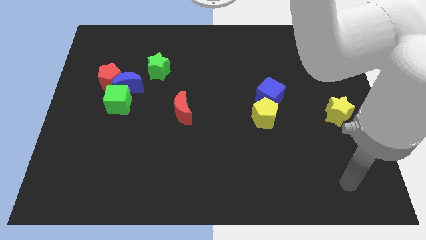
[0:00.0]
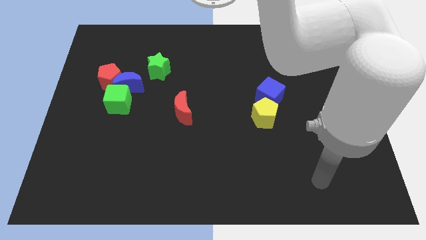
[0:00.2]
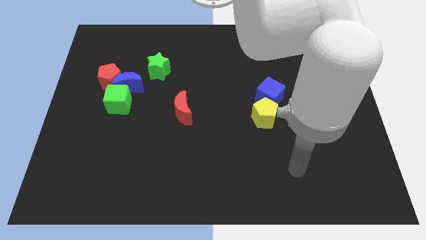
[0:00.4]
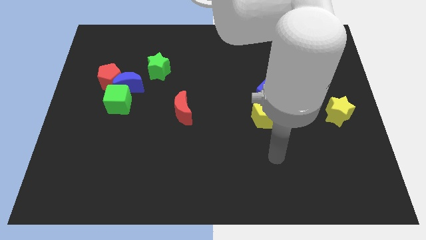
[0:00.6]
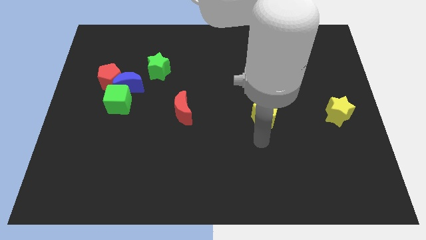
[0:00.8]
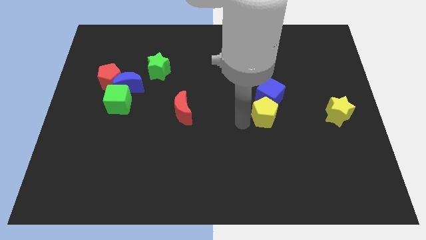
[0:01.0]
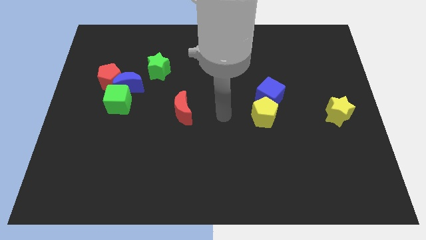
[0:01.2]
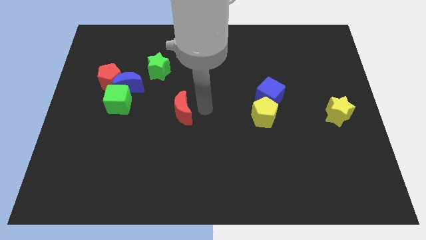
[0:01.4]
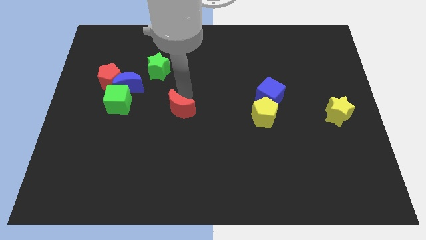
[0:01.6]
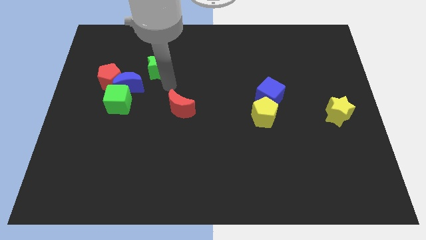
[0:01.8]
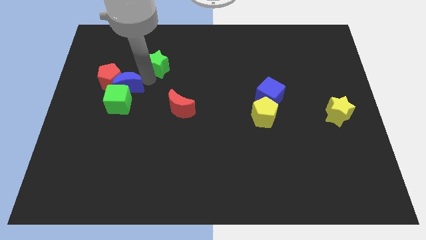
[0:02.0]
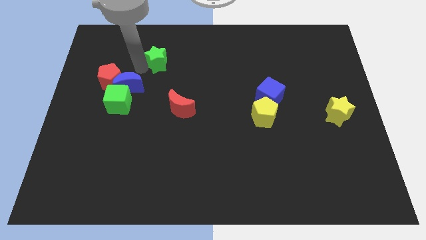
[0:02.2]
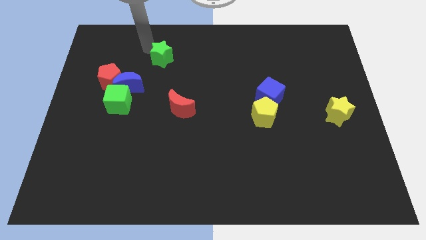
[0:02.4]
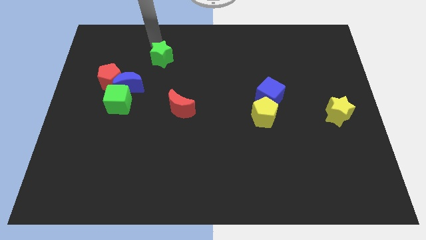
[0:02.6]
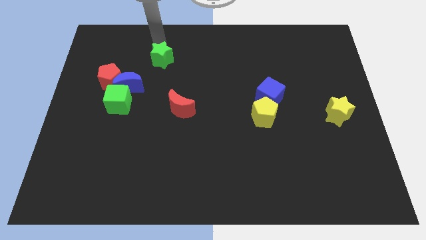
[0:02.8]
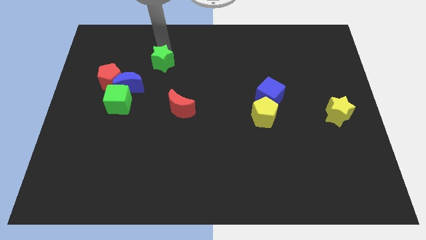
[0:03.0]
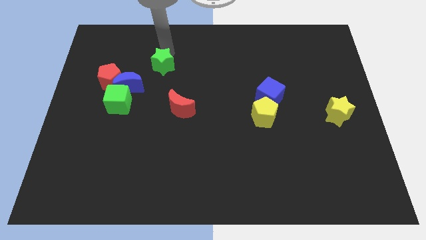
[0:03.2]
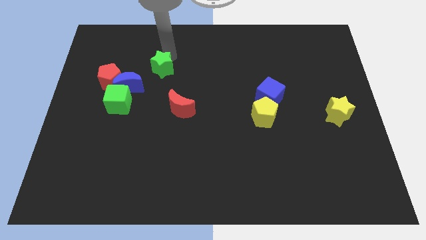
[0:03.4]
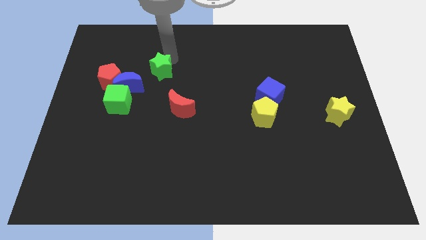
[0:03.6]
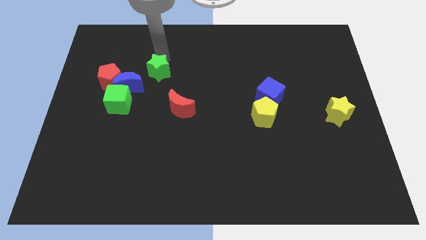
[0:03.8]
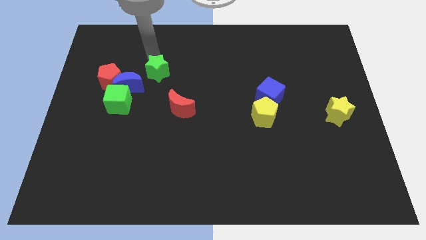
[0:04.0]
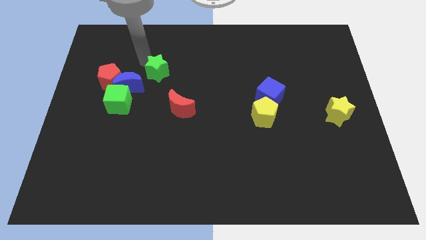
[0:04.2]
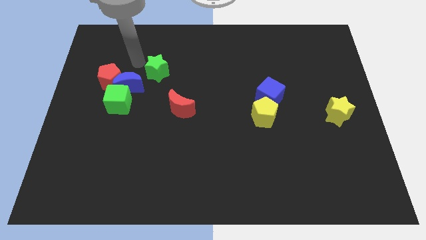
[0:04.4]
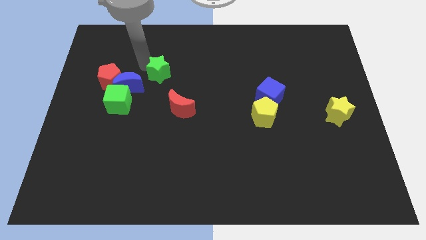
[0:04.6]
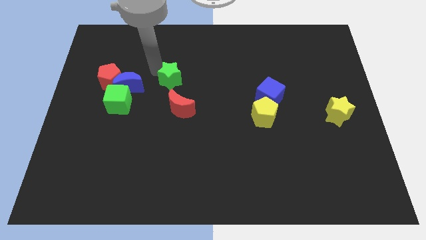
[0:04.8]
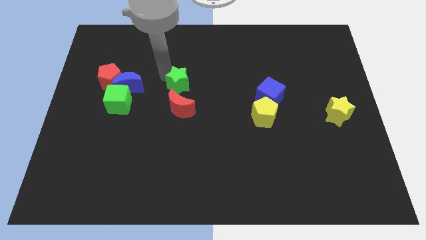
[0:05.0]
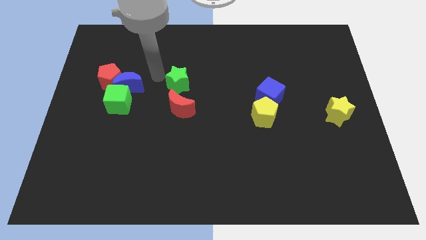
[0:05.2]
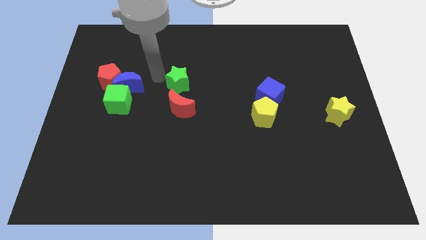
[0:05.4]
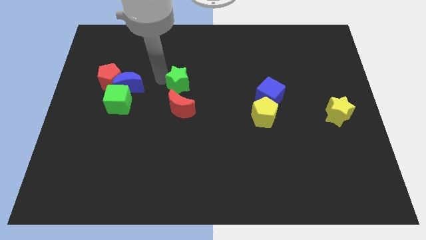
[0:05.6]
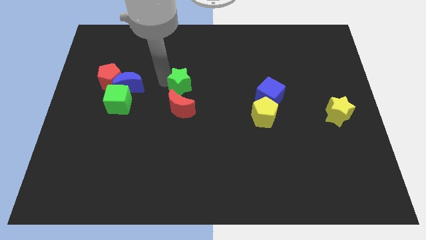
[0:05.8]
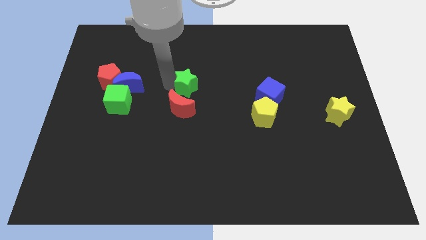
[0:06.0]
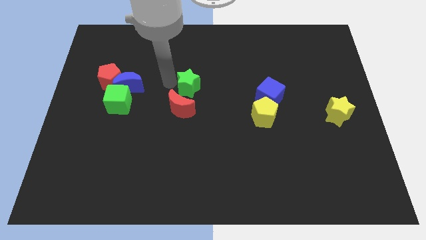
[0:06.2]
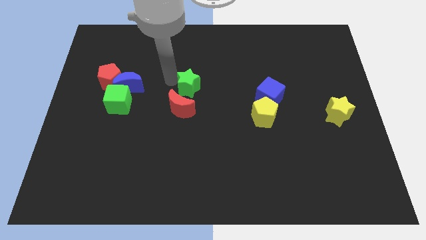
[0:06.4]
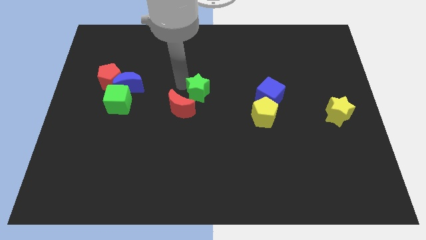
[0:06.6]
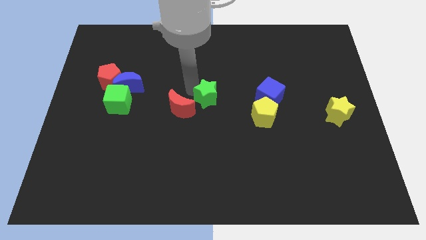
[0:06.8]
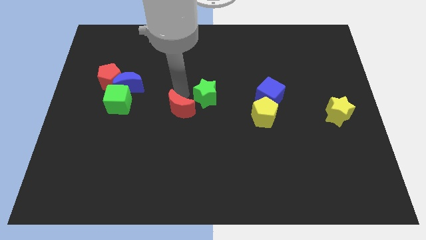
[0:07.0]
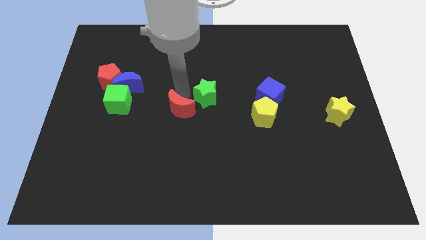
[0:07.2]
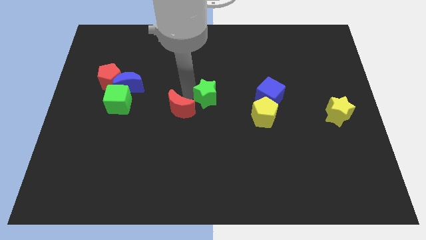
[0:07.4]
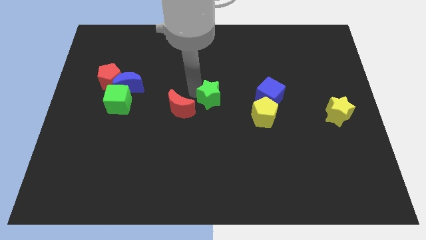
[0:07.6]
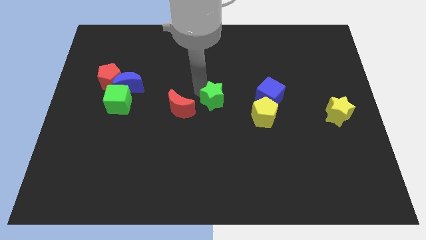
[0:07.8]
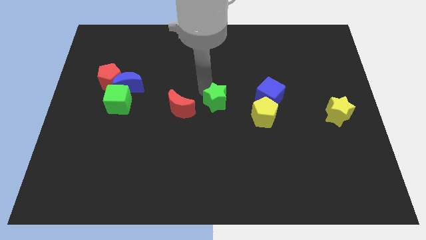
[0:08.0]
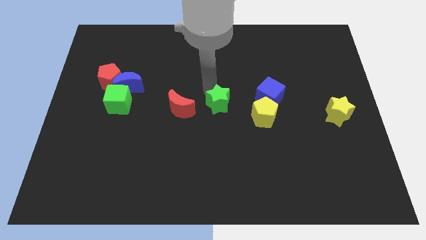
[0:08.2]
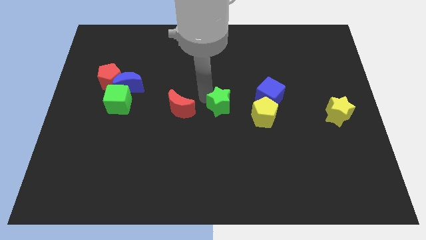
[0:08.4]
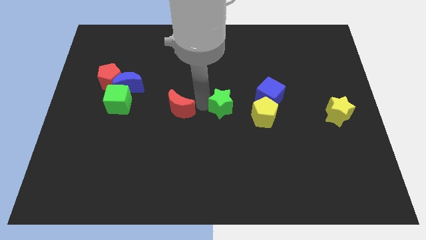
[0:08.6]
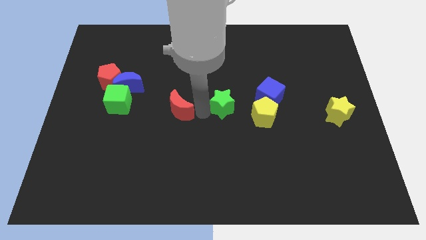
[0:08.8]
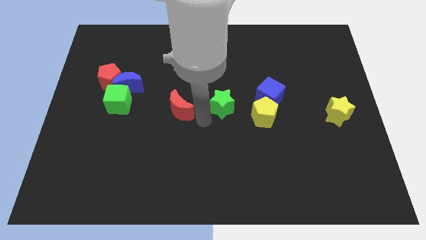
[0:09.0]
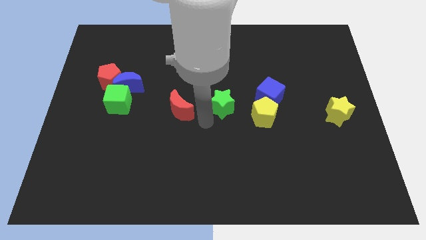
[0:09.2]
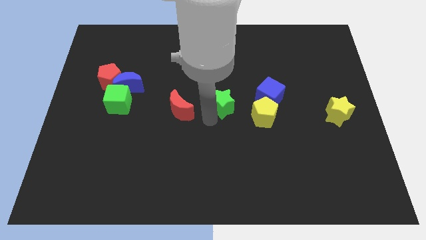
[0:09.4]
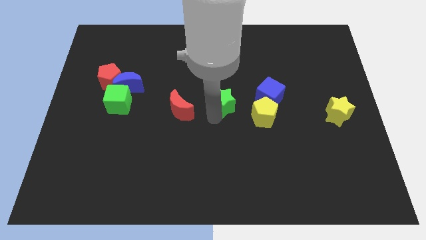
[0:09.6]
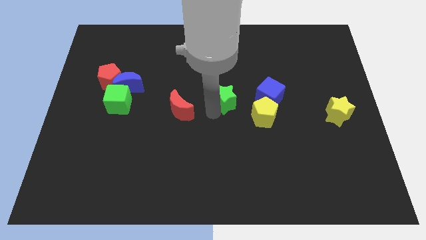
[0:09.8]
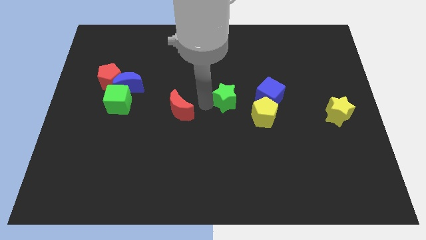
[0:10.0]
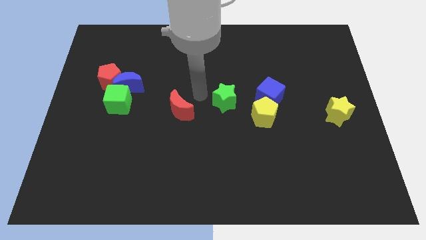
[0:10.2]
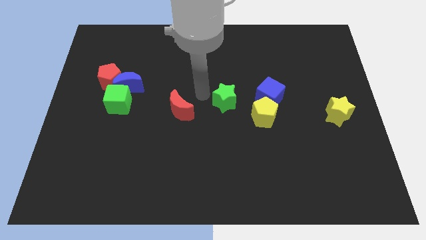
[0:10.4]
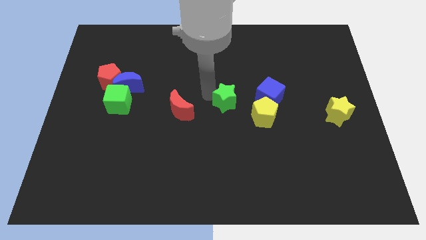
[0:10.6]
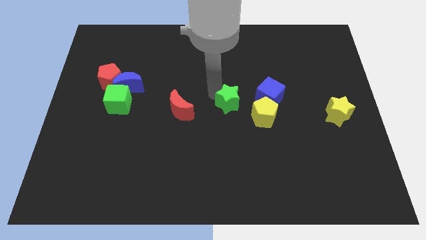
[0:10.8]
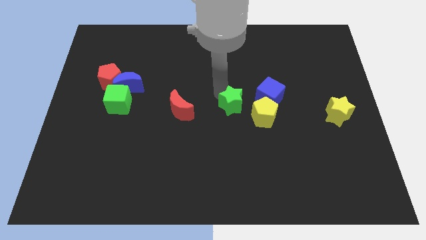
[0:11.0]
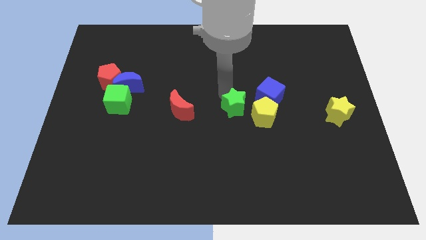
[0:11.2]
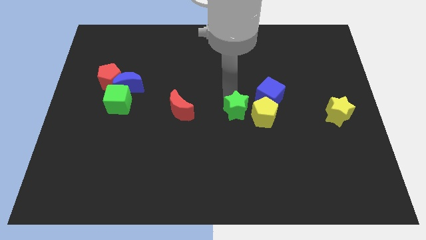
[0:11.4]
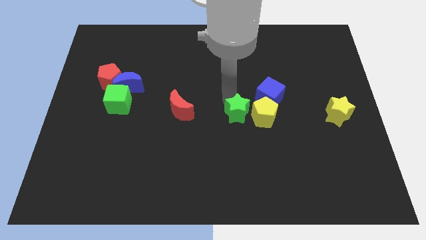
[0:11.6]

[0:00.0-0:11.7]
slide the green star towards the yellow pentagon

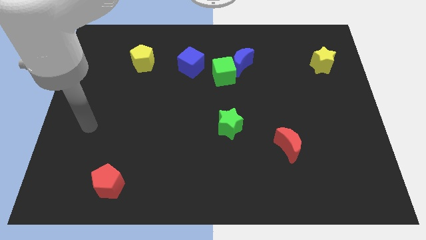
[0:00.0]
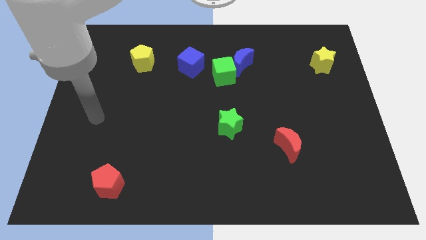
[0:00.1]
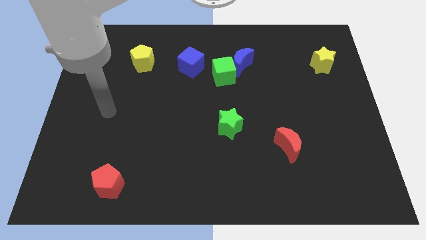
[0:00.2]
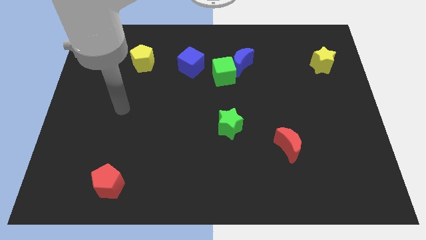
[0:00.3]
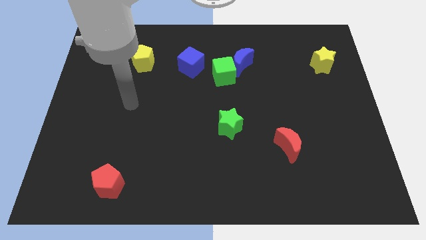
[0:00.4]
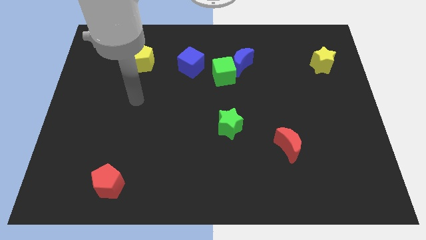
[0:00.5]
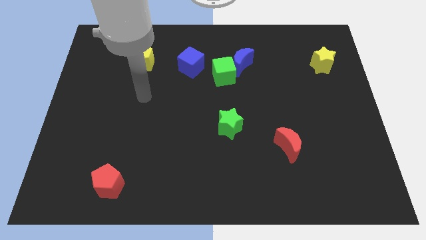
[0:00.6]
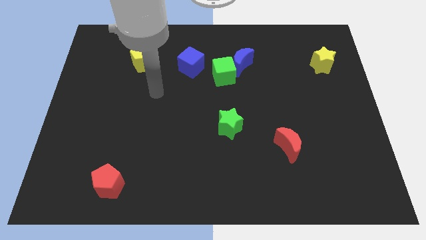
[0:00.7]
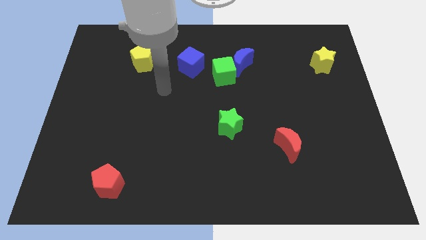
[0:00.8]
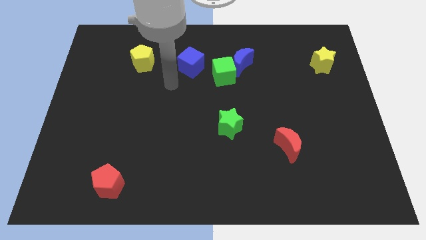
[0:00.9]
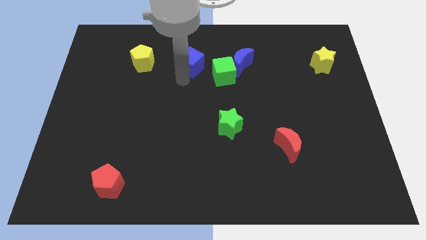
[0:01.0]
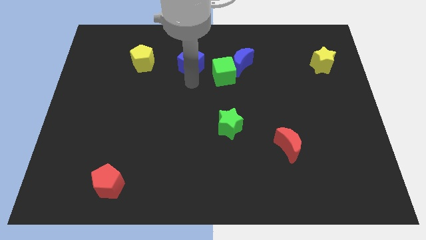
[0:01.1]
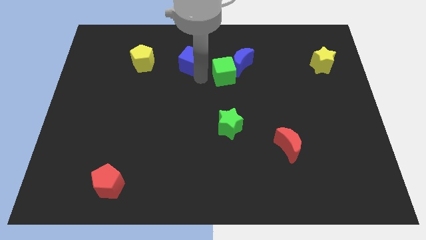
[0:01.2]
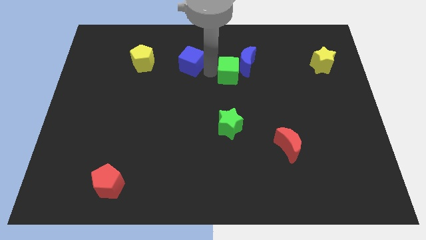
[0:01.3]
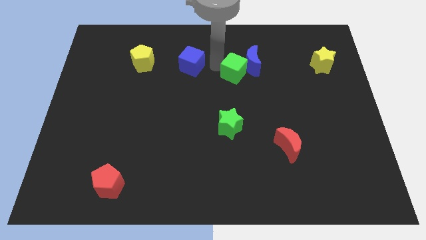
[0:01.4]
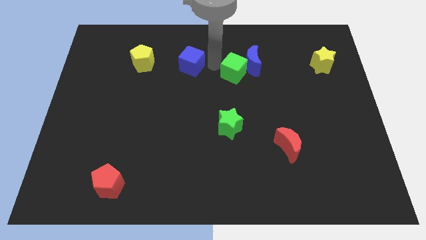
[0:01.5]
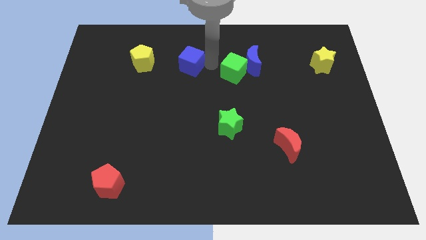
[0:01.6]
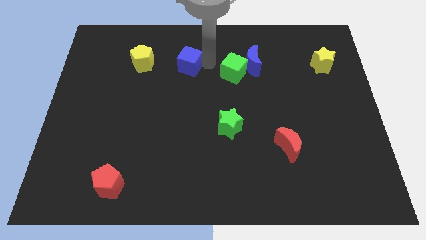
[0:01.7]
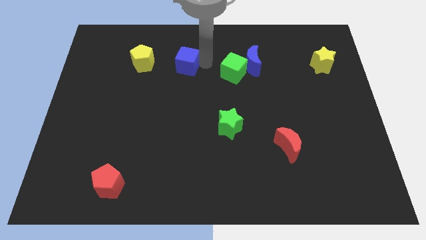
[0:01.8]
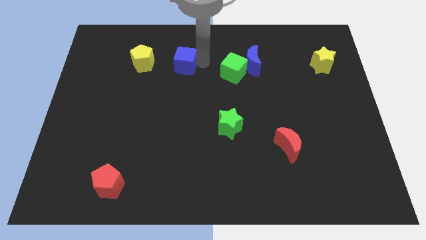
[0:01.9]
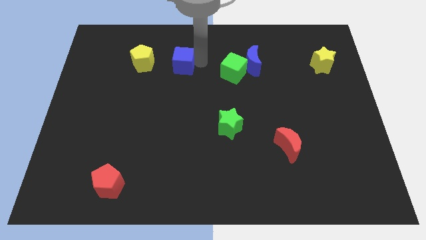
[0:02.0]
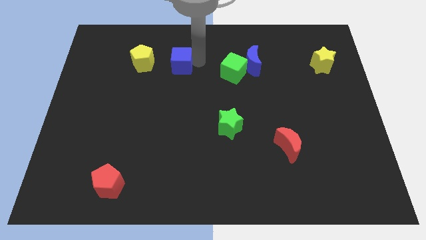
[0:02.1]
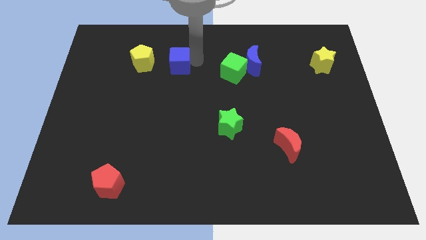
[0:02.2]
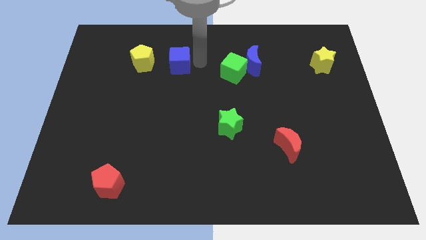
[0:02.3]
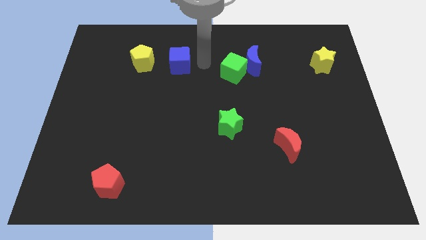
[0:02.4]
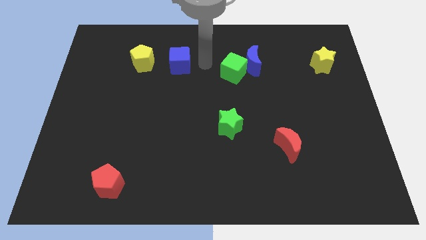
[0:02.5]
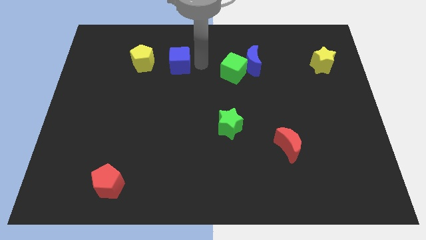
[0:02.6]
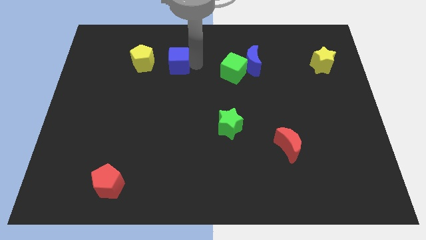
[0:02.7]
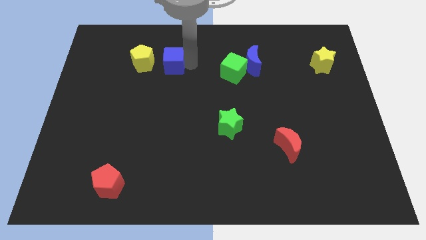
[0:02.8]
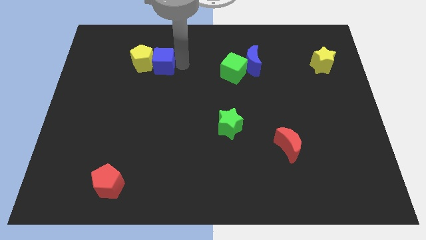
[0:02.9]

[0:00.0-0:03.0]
slide the blue cube to the yellow pentagon
